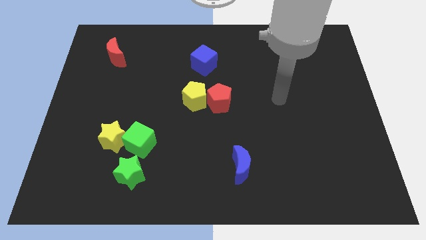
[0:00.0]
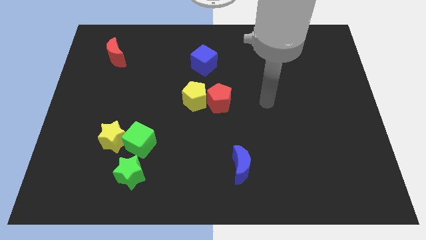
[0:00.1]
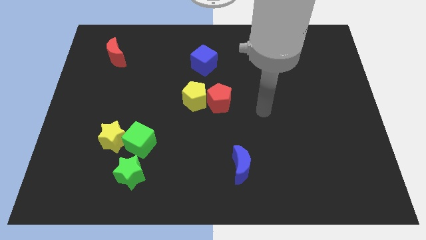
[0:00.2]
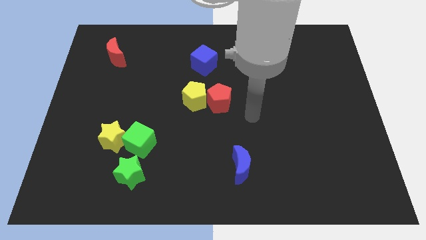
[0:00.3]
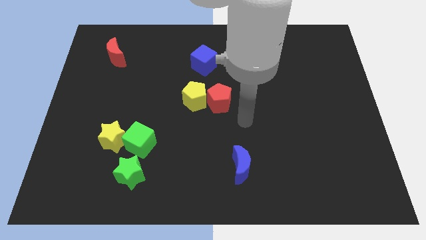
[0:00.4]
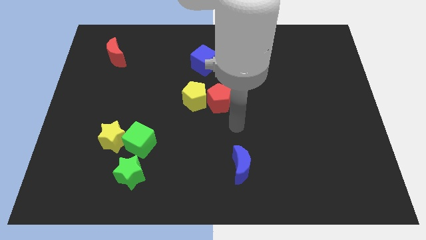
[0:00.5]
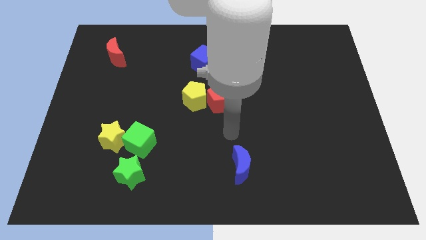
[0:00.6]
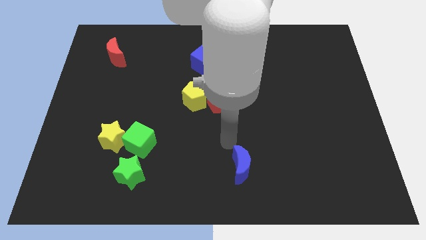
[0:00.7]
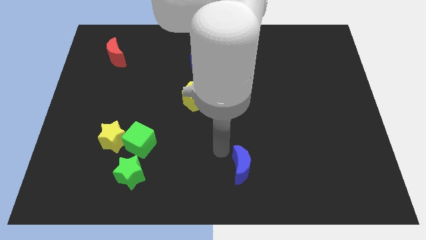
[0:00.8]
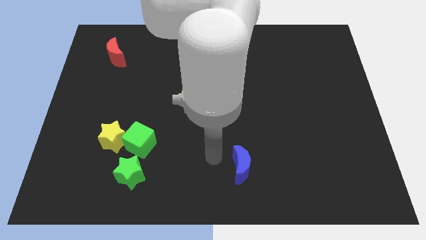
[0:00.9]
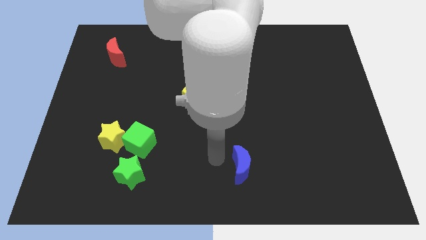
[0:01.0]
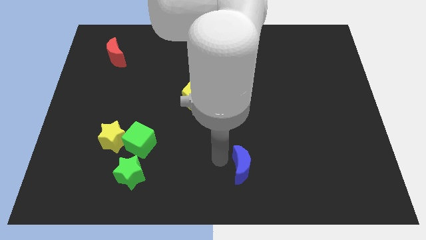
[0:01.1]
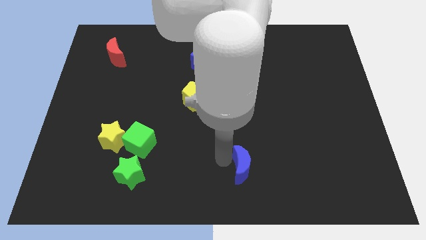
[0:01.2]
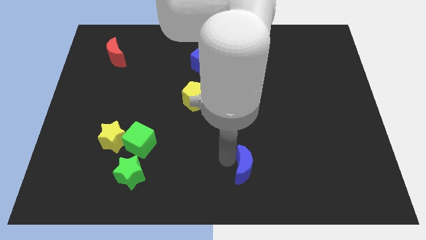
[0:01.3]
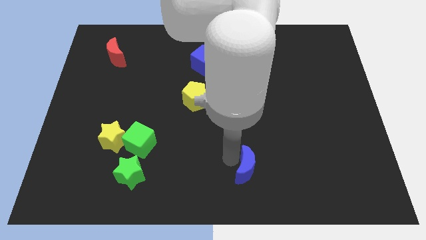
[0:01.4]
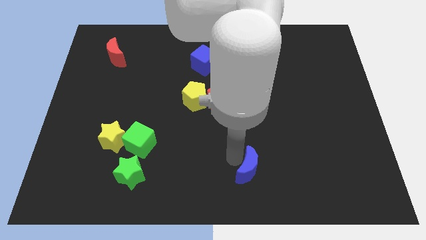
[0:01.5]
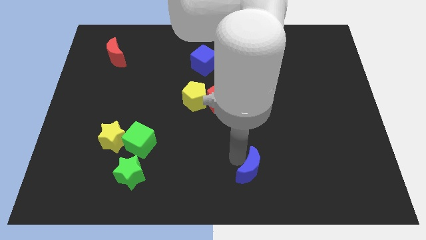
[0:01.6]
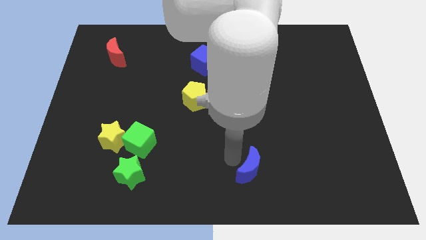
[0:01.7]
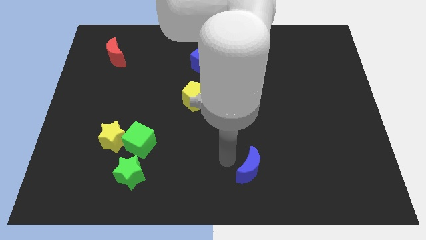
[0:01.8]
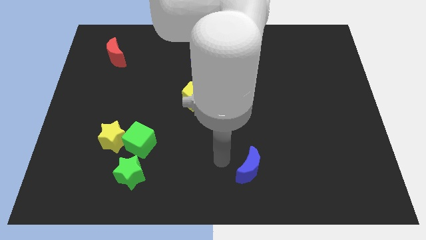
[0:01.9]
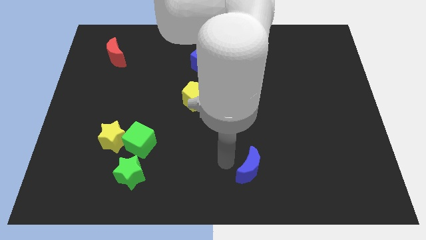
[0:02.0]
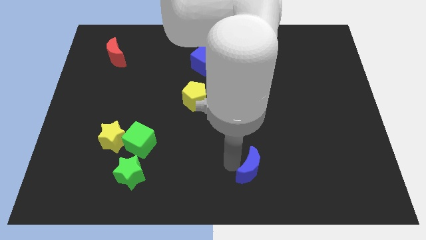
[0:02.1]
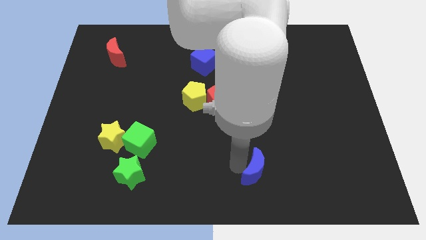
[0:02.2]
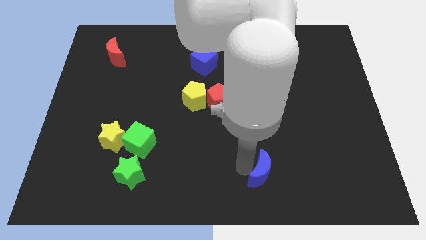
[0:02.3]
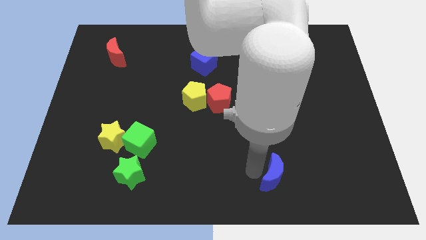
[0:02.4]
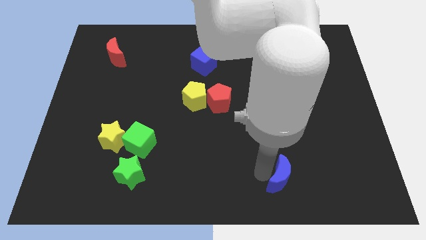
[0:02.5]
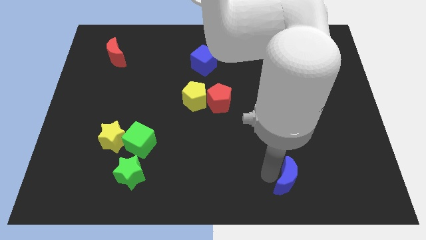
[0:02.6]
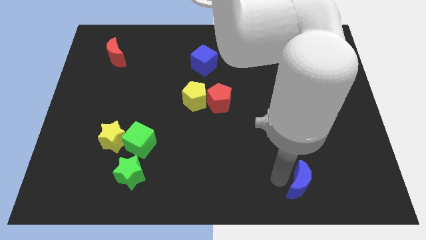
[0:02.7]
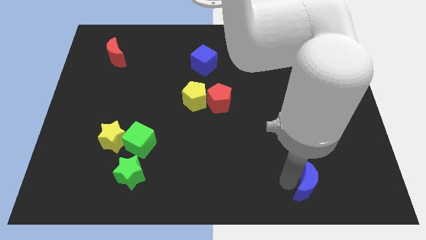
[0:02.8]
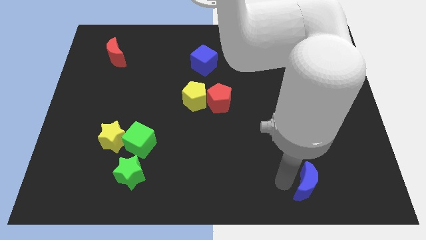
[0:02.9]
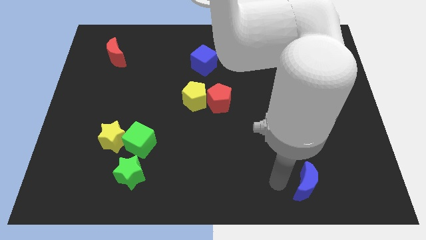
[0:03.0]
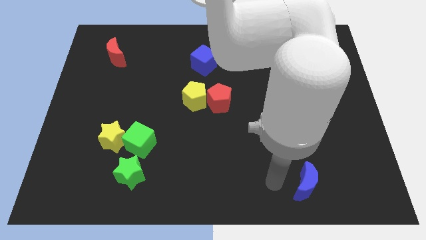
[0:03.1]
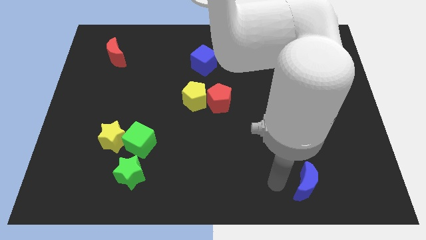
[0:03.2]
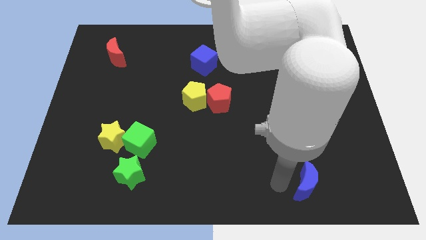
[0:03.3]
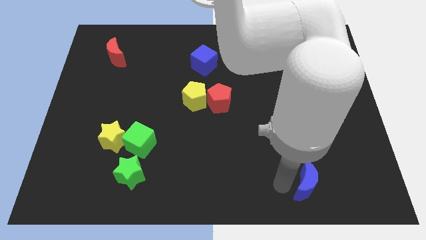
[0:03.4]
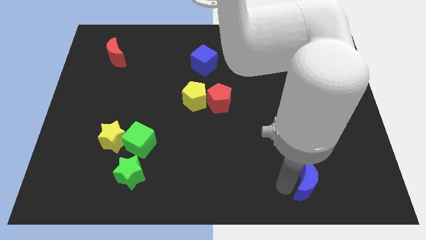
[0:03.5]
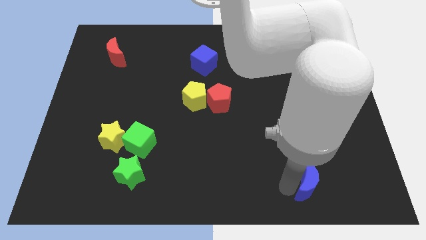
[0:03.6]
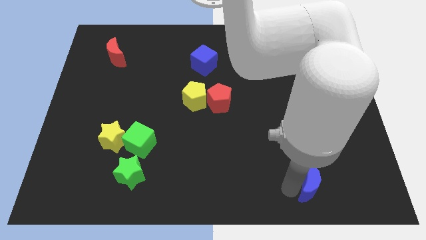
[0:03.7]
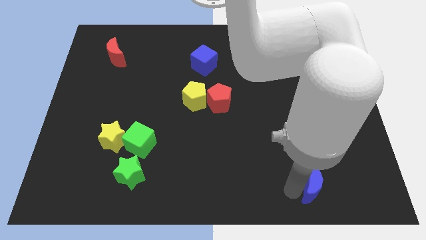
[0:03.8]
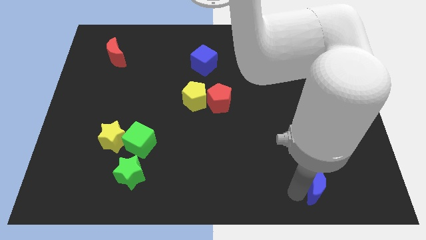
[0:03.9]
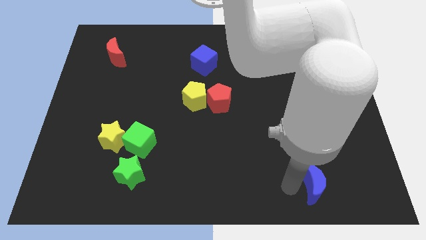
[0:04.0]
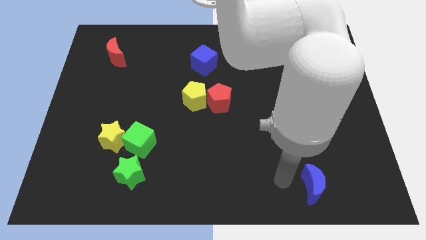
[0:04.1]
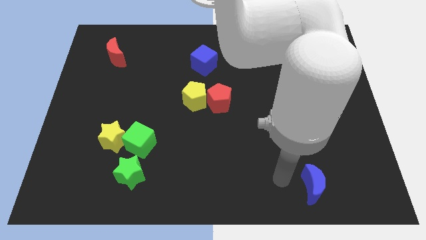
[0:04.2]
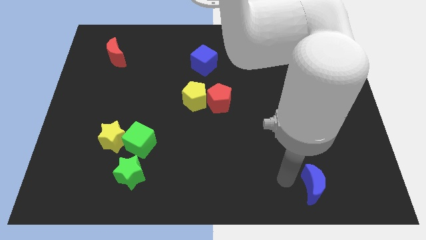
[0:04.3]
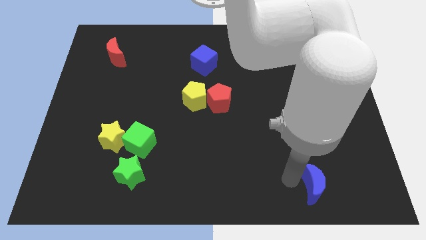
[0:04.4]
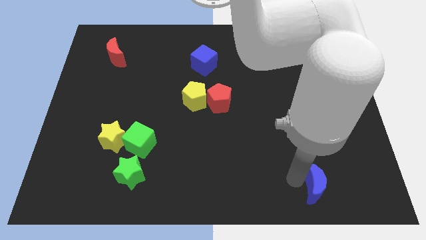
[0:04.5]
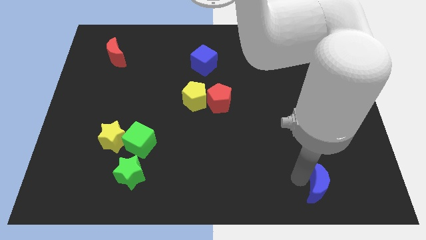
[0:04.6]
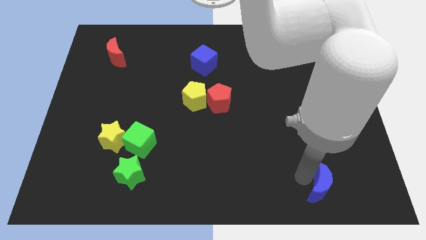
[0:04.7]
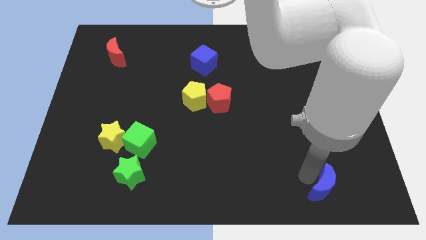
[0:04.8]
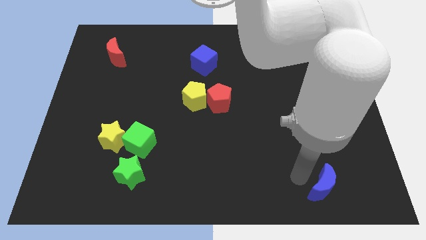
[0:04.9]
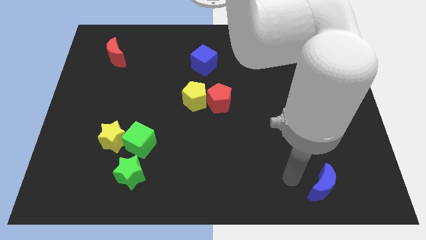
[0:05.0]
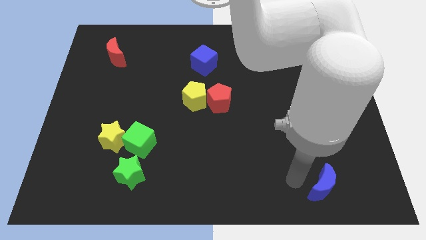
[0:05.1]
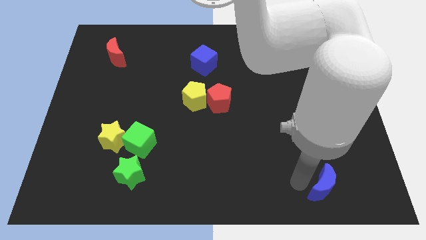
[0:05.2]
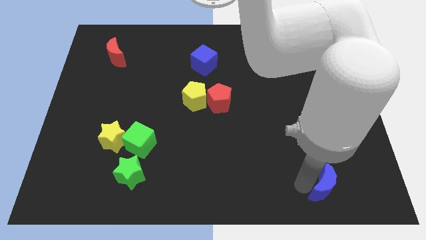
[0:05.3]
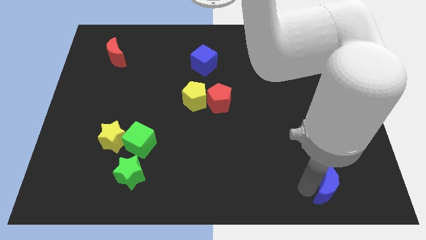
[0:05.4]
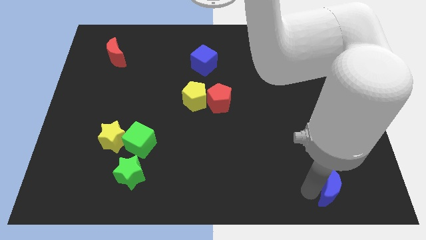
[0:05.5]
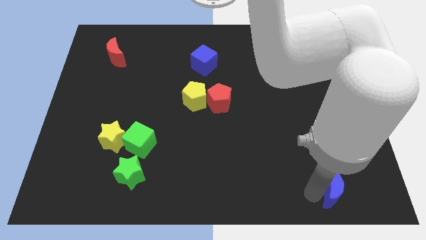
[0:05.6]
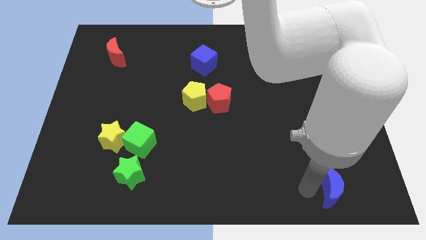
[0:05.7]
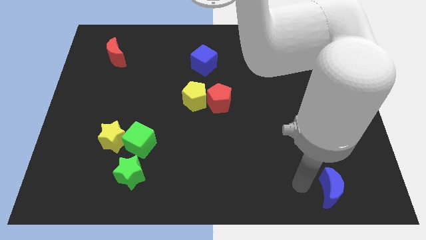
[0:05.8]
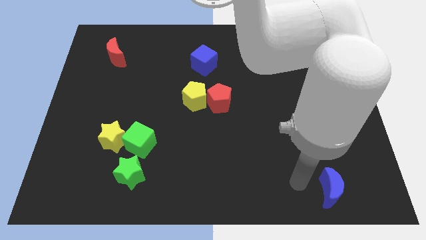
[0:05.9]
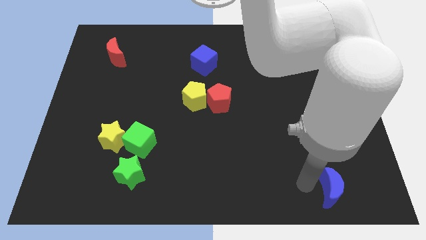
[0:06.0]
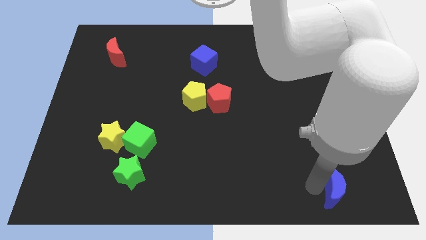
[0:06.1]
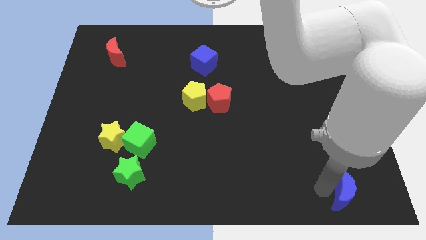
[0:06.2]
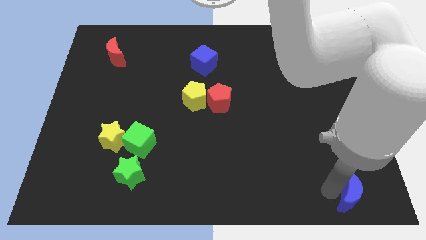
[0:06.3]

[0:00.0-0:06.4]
put the blue moon to the lower right corner

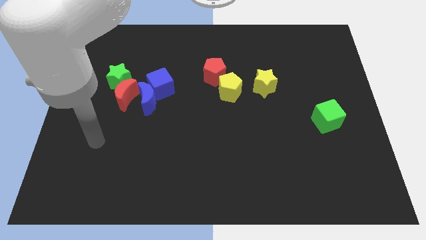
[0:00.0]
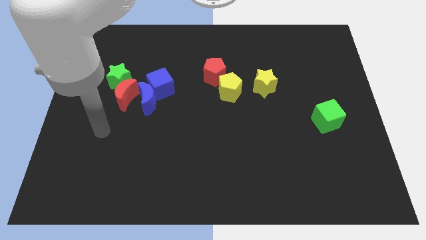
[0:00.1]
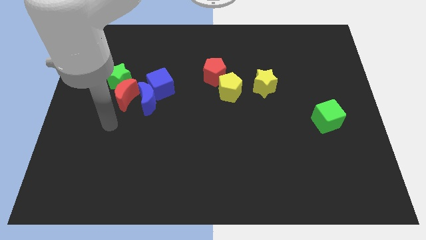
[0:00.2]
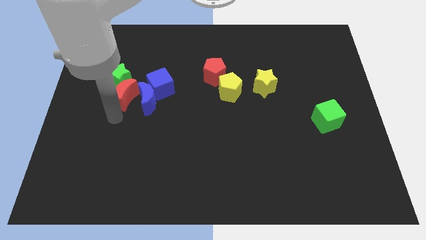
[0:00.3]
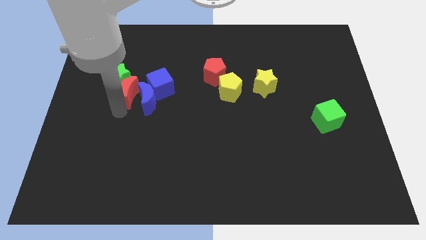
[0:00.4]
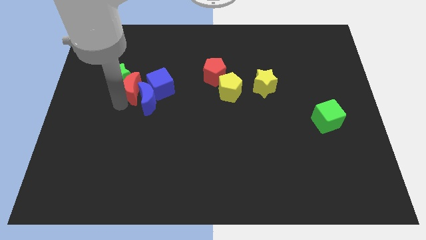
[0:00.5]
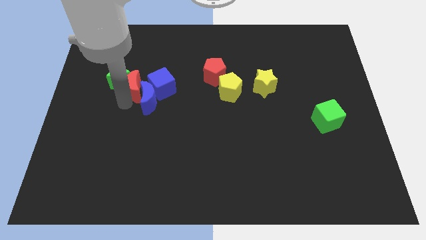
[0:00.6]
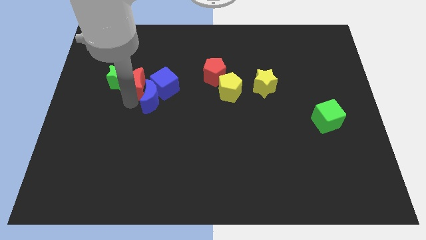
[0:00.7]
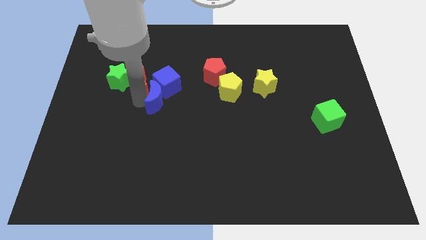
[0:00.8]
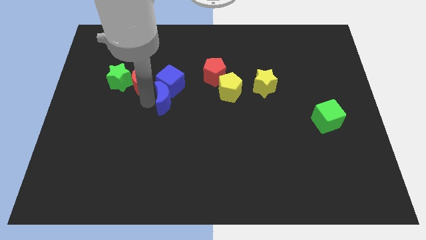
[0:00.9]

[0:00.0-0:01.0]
slide the blue moon to the middle
